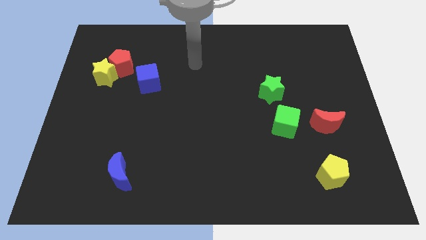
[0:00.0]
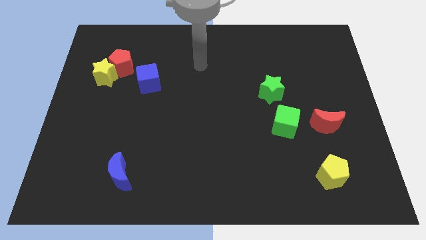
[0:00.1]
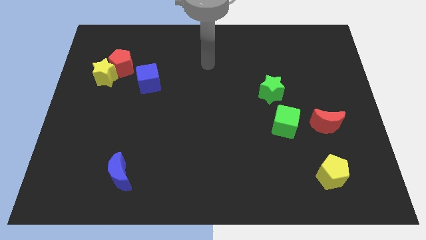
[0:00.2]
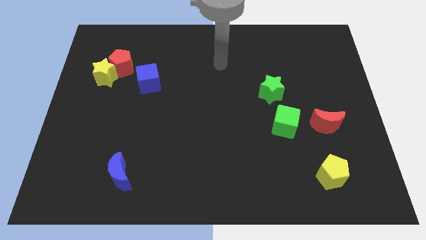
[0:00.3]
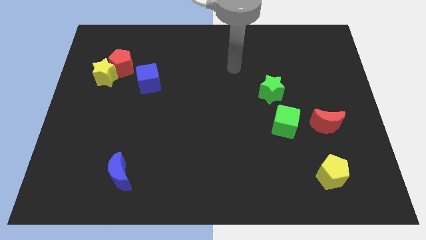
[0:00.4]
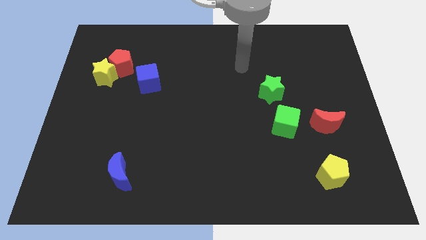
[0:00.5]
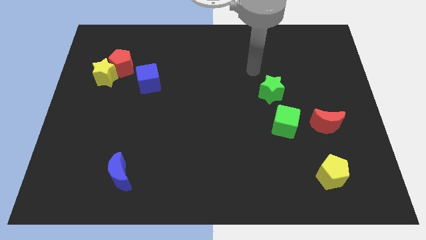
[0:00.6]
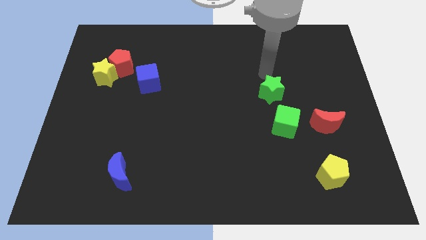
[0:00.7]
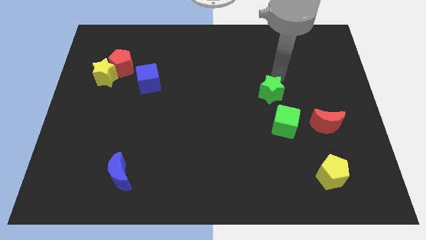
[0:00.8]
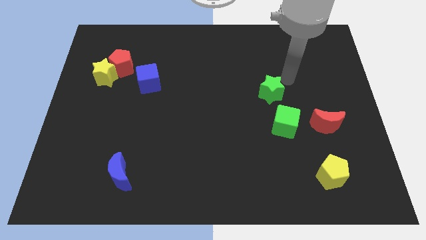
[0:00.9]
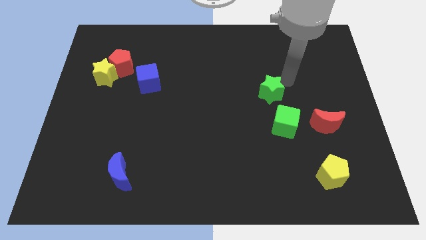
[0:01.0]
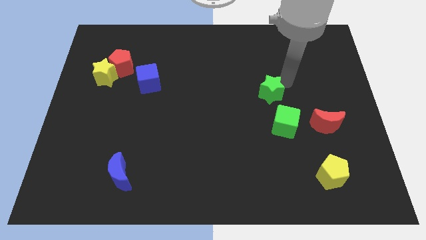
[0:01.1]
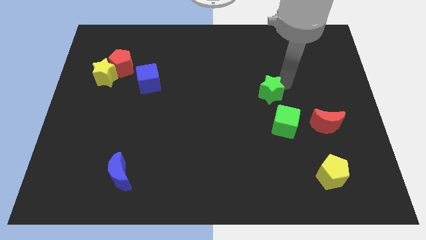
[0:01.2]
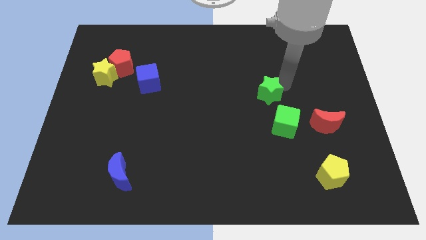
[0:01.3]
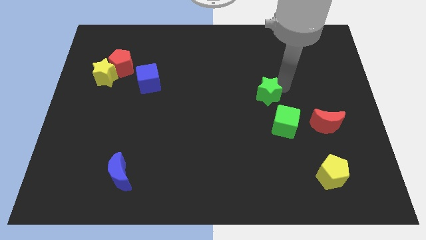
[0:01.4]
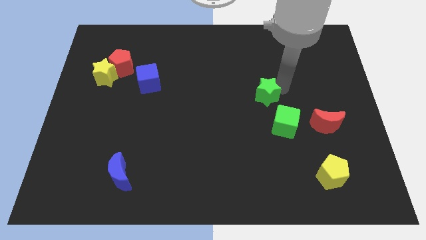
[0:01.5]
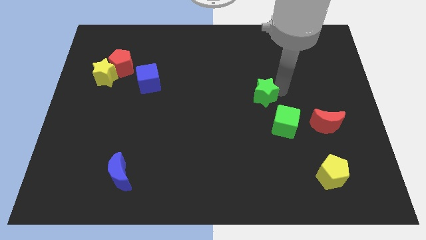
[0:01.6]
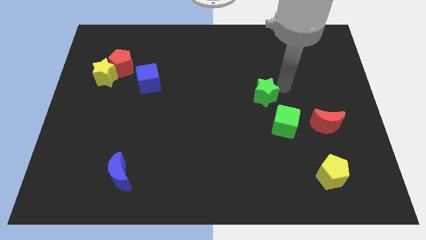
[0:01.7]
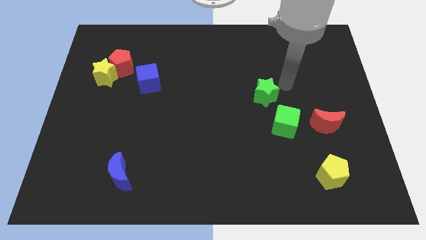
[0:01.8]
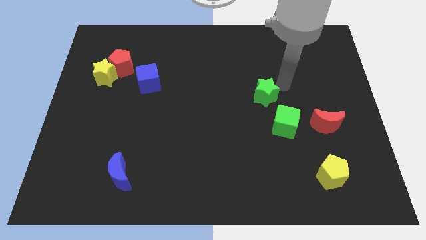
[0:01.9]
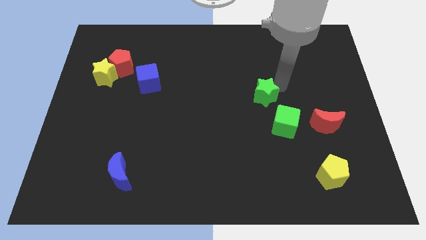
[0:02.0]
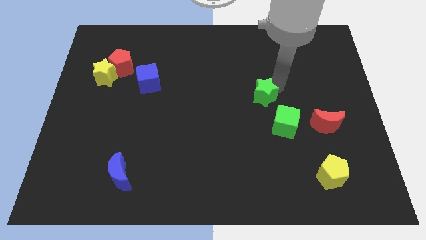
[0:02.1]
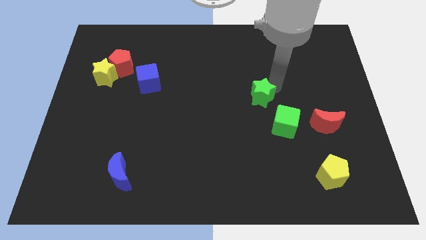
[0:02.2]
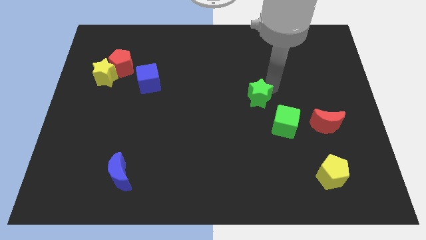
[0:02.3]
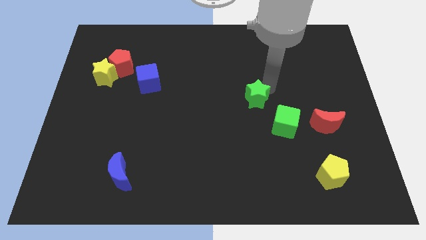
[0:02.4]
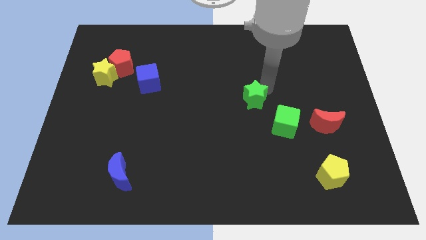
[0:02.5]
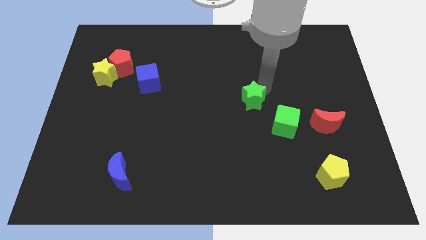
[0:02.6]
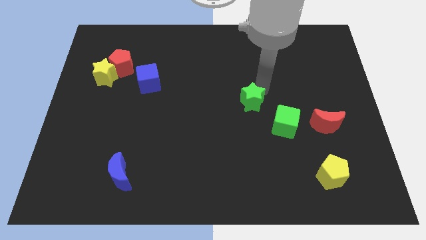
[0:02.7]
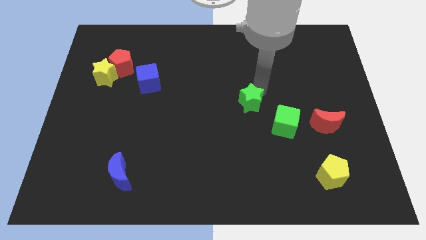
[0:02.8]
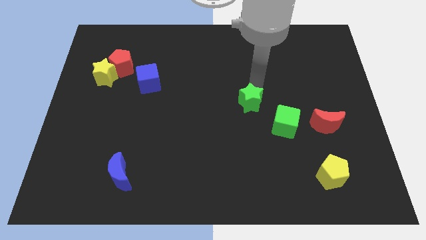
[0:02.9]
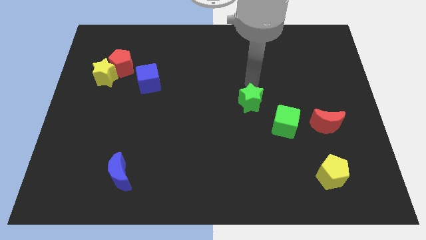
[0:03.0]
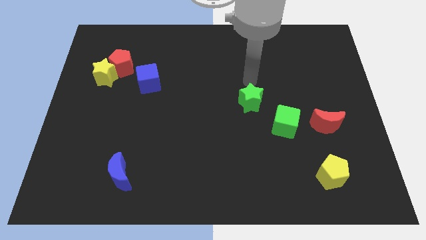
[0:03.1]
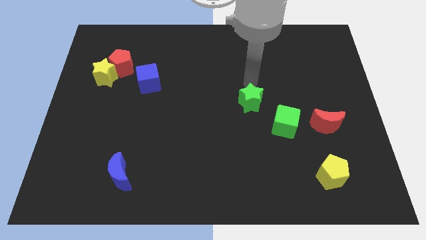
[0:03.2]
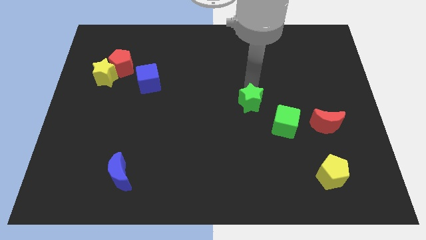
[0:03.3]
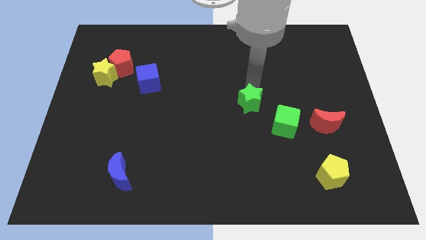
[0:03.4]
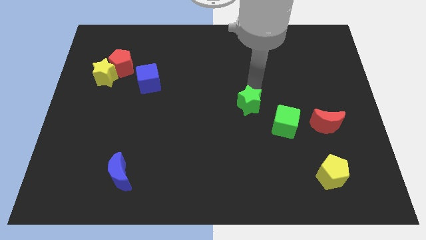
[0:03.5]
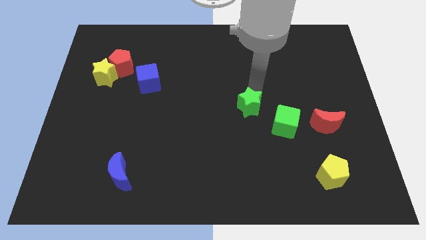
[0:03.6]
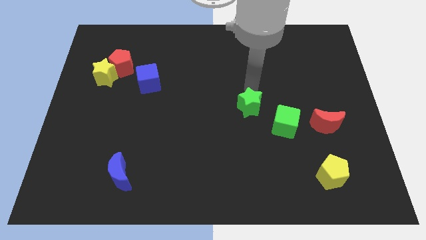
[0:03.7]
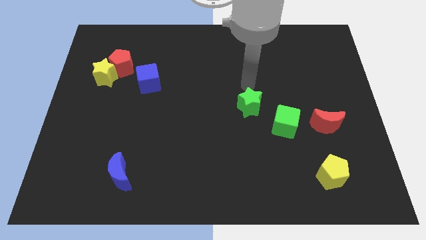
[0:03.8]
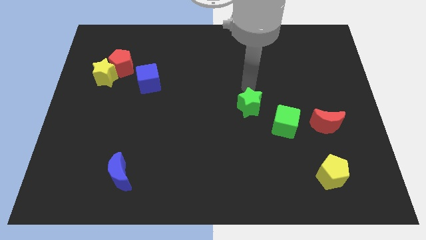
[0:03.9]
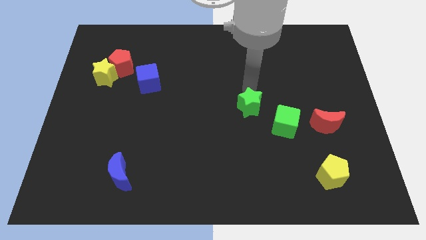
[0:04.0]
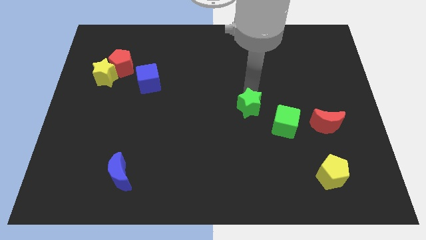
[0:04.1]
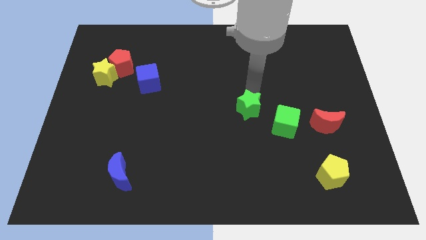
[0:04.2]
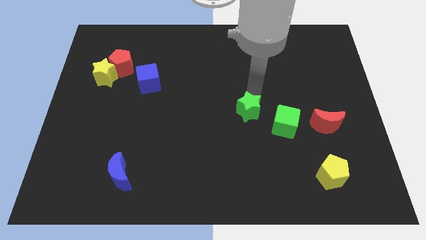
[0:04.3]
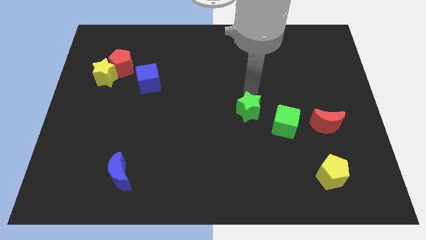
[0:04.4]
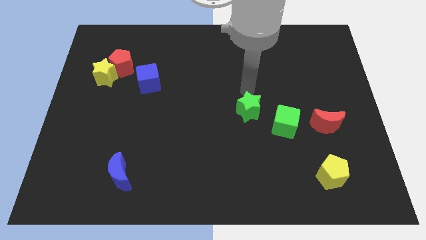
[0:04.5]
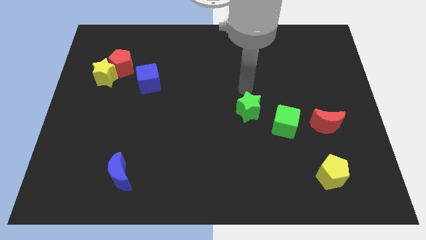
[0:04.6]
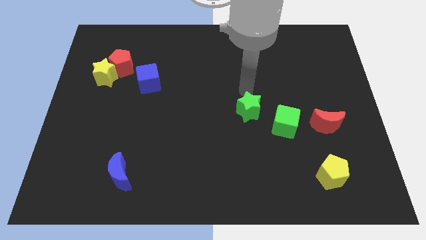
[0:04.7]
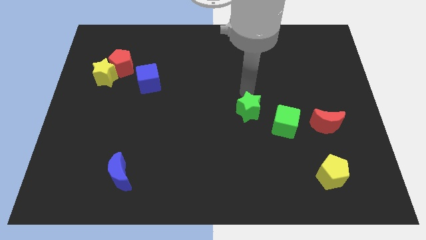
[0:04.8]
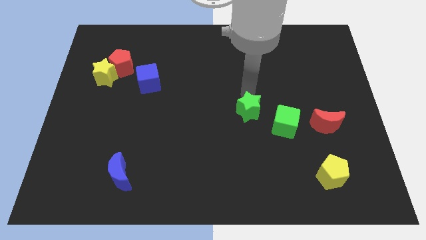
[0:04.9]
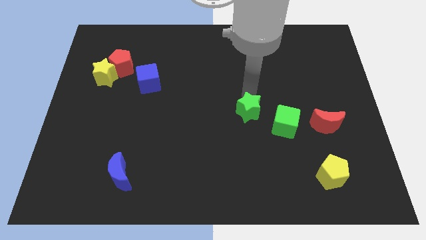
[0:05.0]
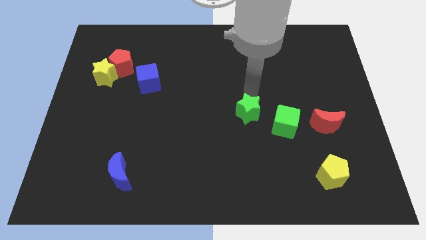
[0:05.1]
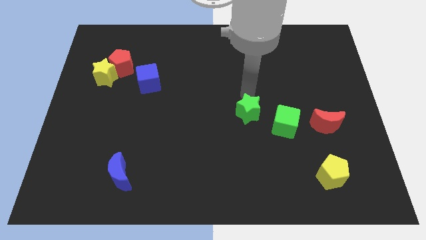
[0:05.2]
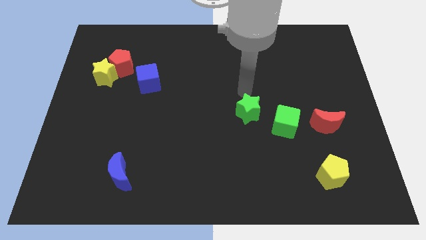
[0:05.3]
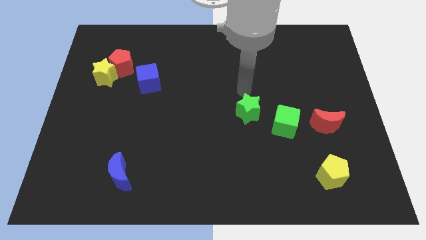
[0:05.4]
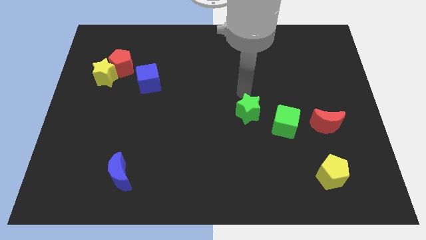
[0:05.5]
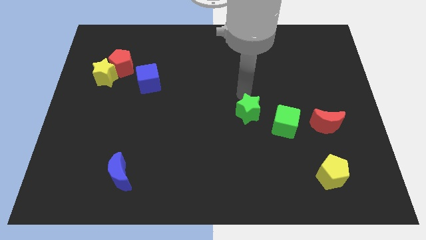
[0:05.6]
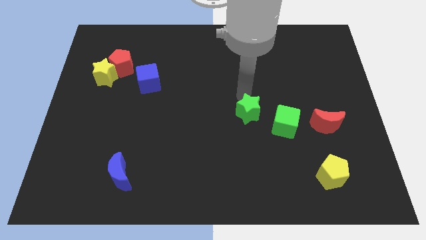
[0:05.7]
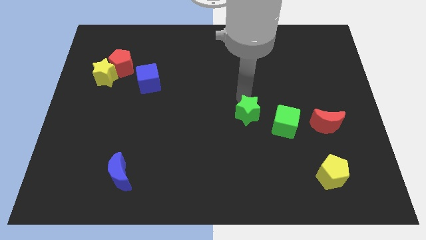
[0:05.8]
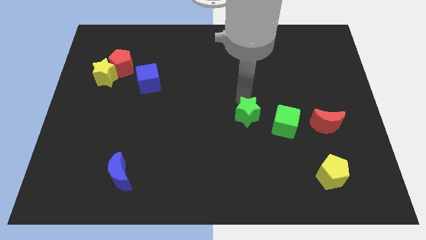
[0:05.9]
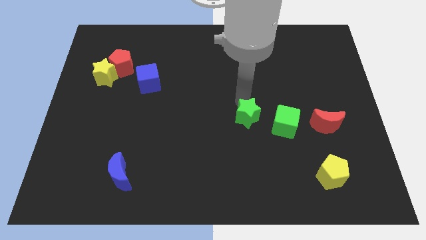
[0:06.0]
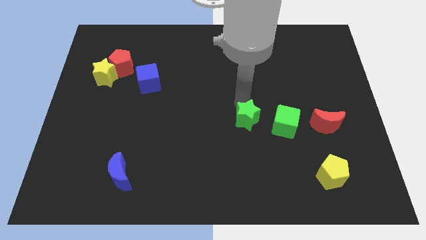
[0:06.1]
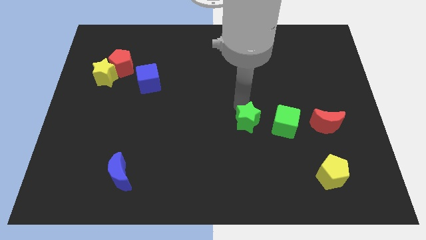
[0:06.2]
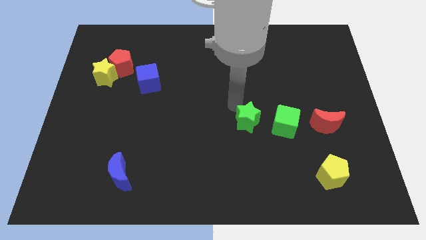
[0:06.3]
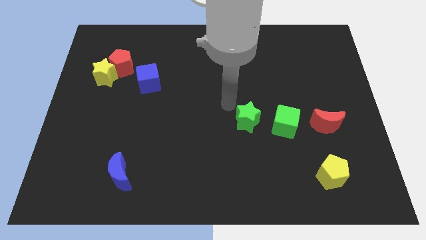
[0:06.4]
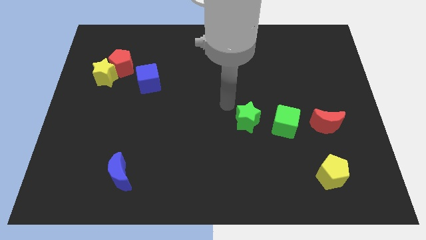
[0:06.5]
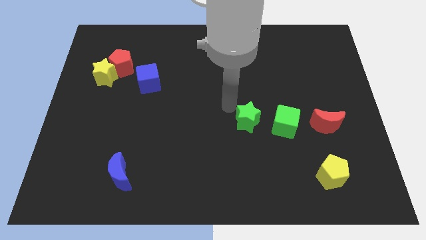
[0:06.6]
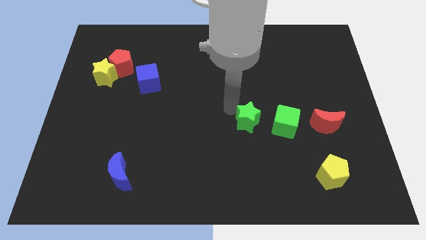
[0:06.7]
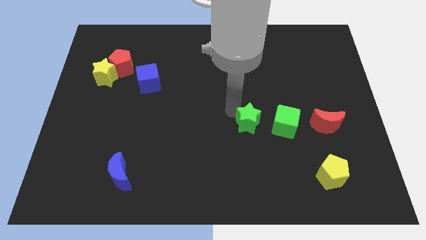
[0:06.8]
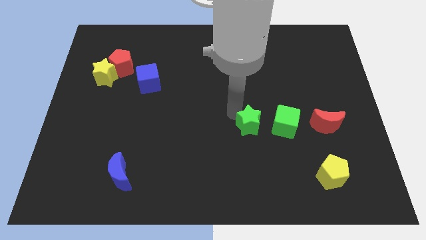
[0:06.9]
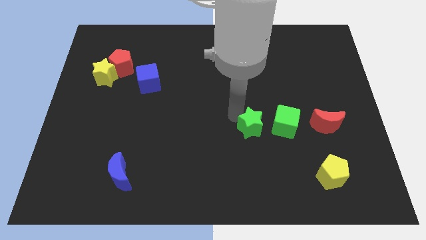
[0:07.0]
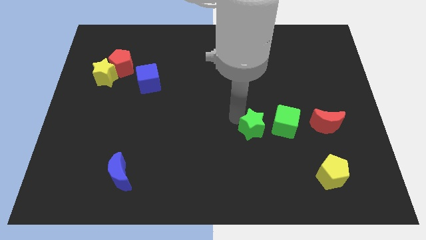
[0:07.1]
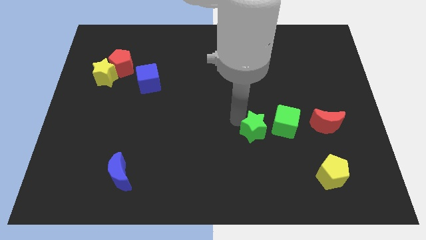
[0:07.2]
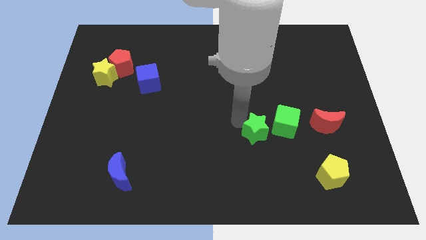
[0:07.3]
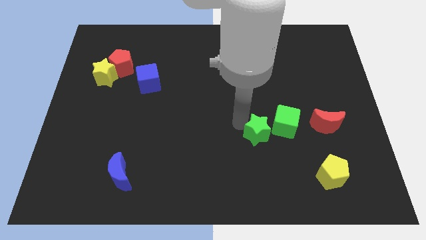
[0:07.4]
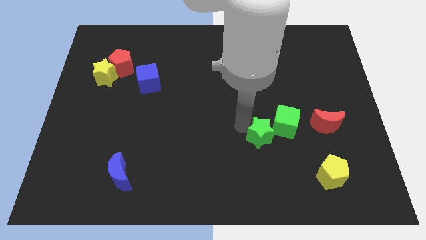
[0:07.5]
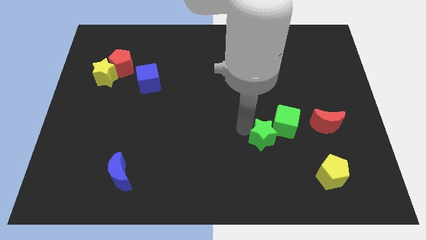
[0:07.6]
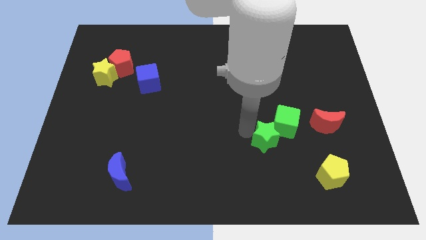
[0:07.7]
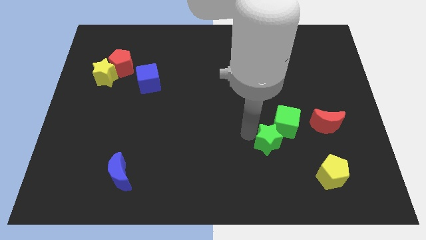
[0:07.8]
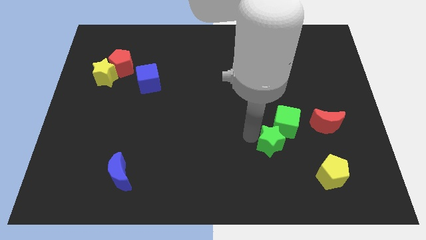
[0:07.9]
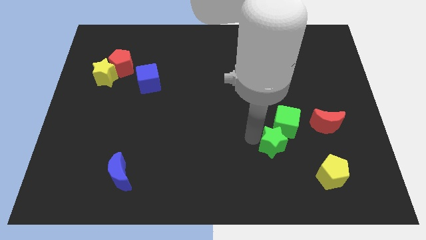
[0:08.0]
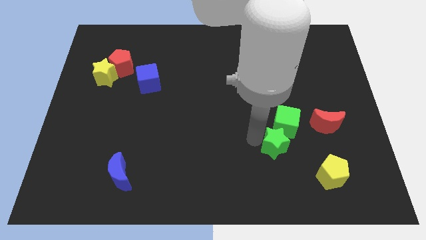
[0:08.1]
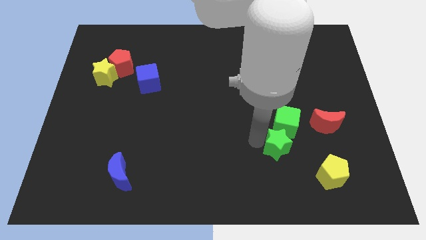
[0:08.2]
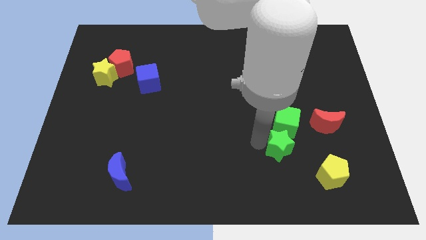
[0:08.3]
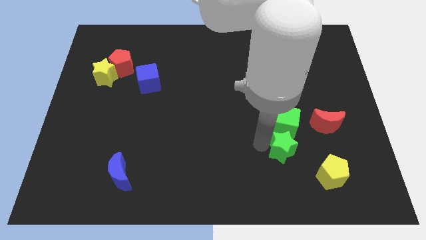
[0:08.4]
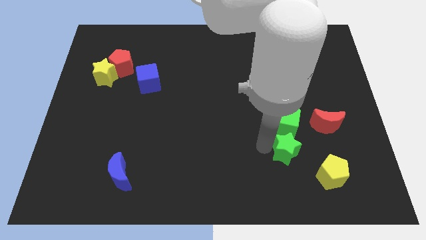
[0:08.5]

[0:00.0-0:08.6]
push the green star to the bottom left of the red moon
